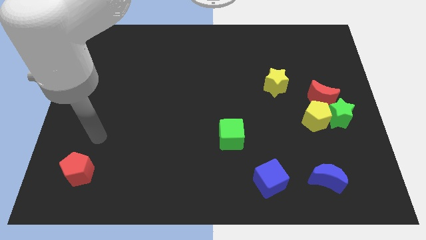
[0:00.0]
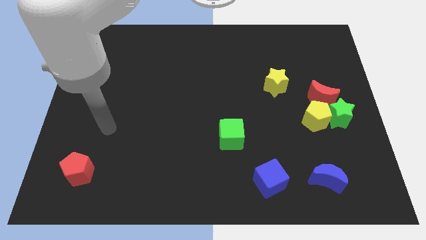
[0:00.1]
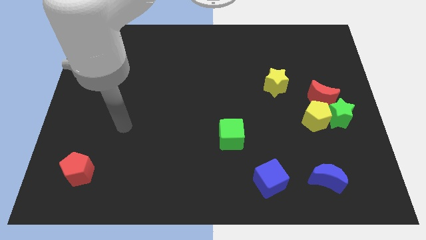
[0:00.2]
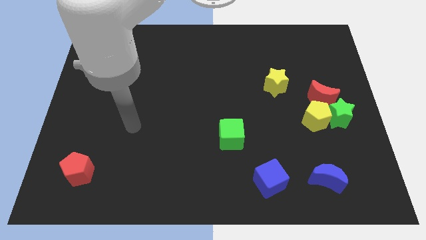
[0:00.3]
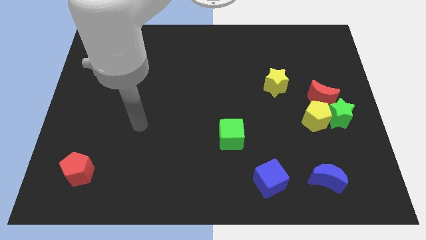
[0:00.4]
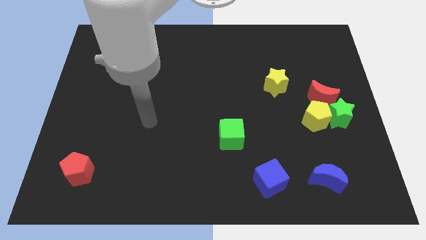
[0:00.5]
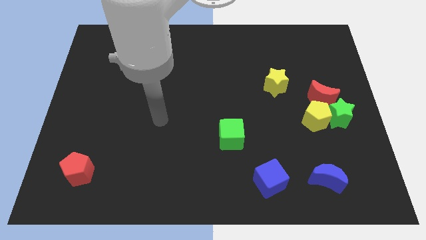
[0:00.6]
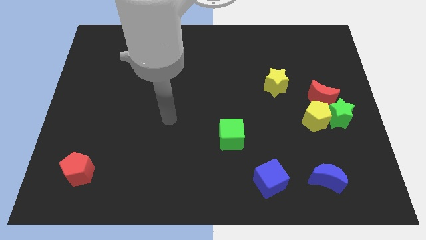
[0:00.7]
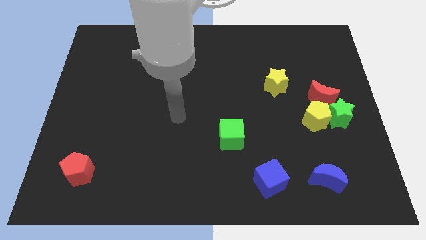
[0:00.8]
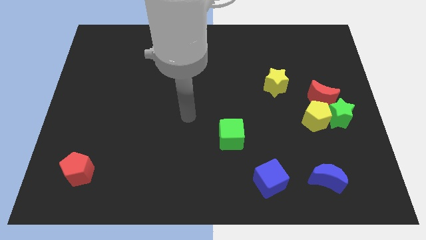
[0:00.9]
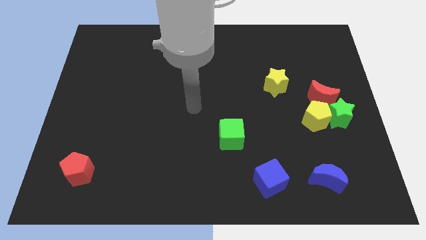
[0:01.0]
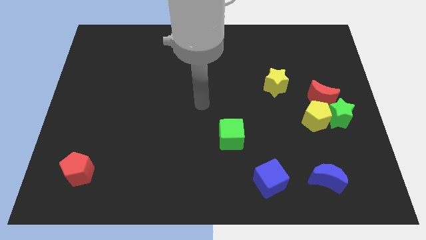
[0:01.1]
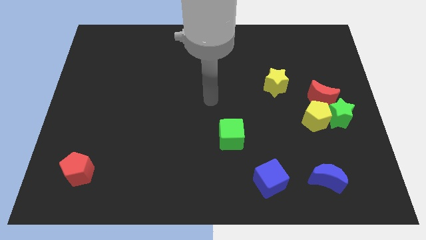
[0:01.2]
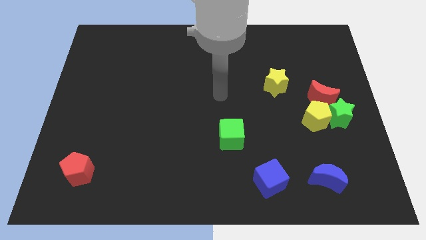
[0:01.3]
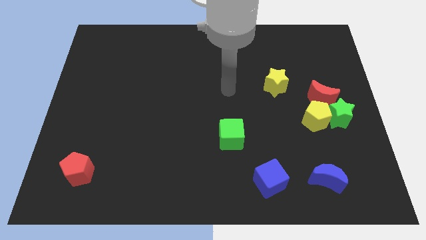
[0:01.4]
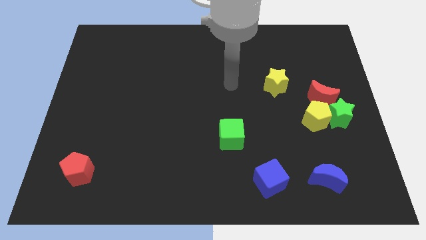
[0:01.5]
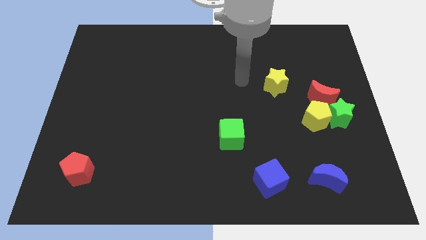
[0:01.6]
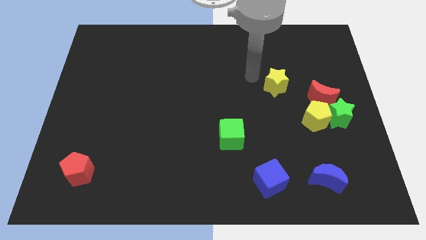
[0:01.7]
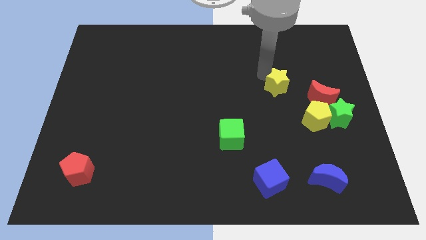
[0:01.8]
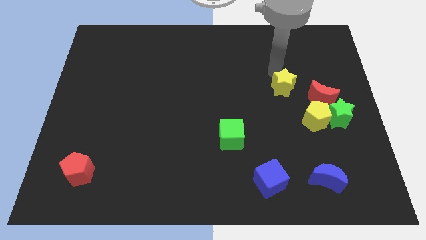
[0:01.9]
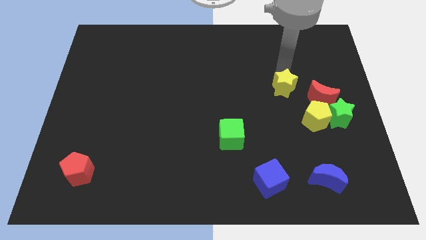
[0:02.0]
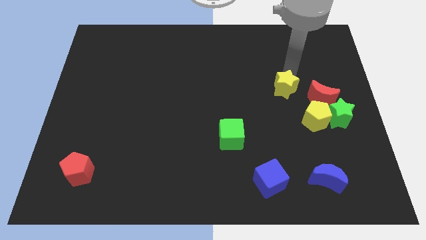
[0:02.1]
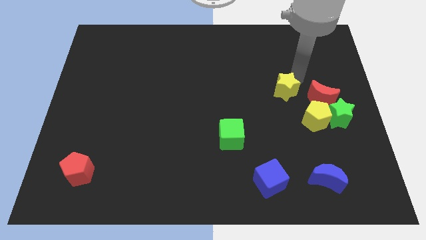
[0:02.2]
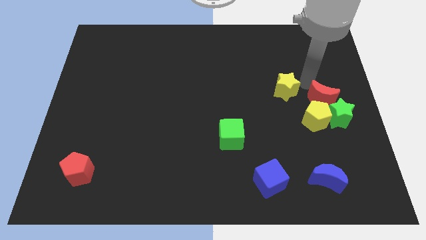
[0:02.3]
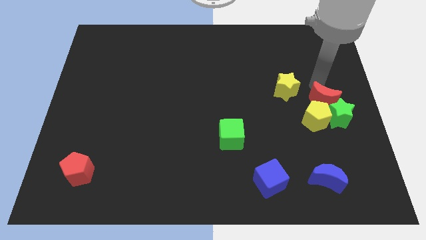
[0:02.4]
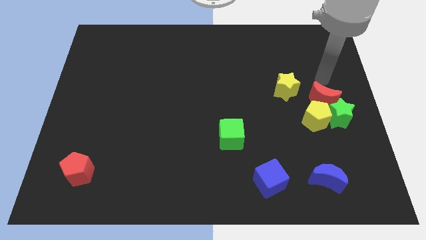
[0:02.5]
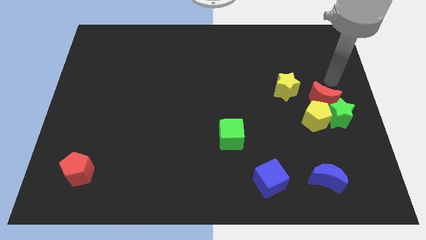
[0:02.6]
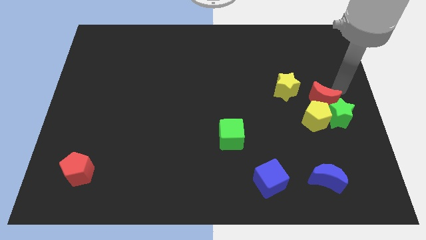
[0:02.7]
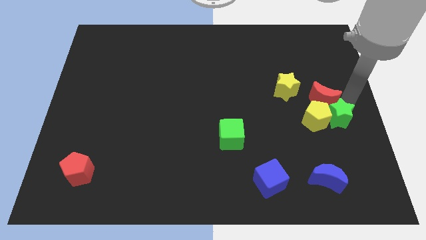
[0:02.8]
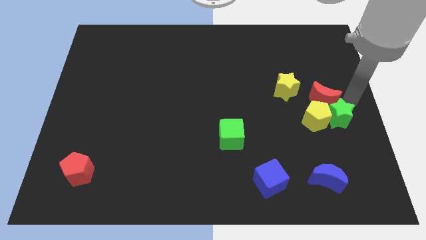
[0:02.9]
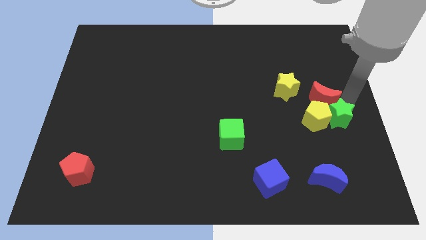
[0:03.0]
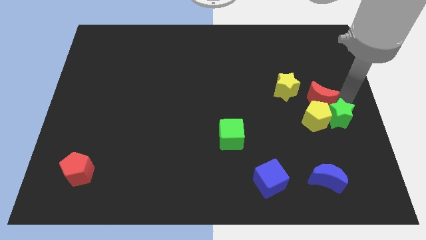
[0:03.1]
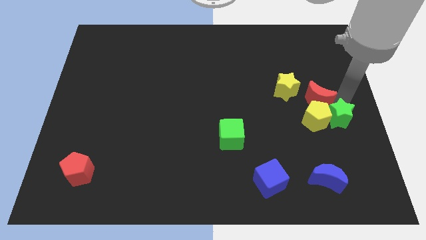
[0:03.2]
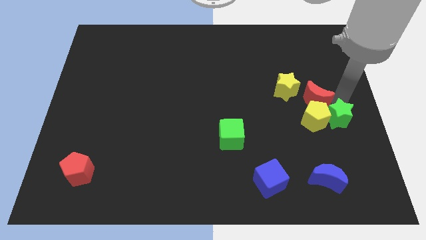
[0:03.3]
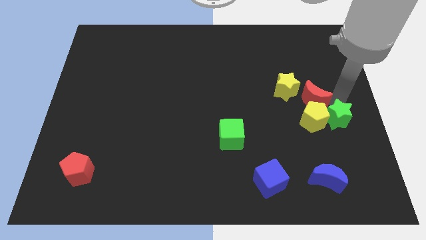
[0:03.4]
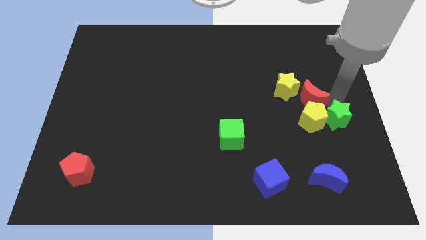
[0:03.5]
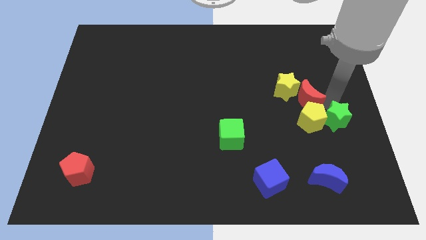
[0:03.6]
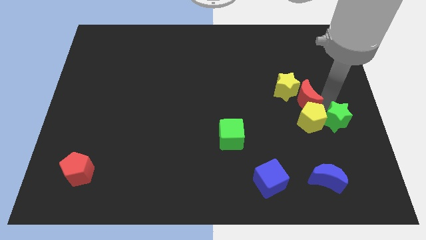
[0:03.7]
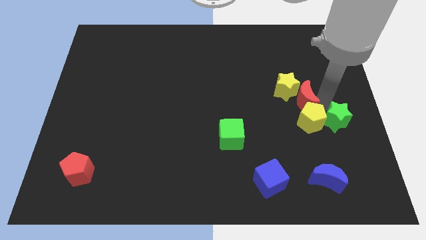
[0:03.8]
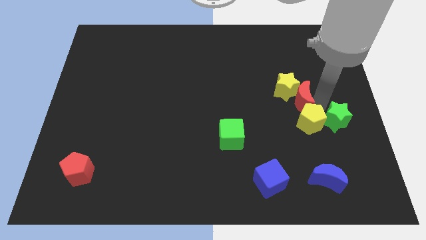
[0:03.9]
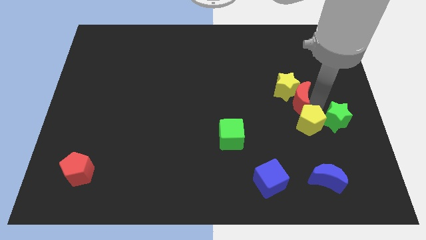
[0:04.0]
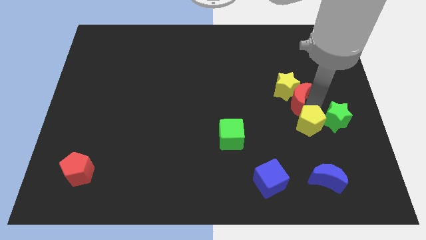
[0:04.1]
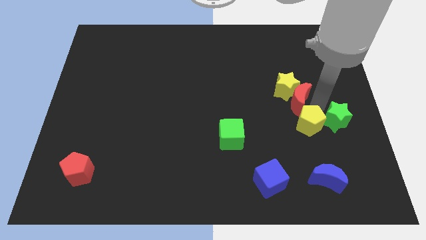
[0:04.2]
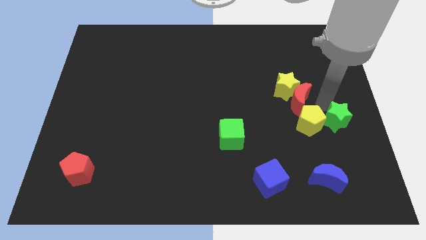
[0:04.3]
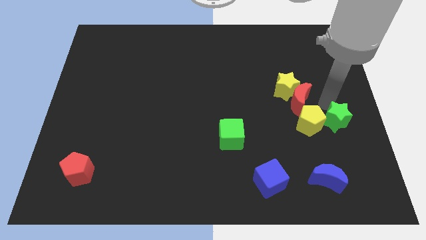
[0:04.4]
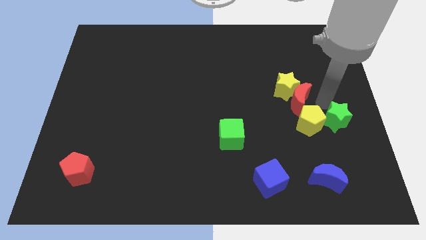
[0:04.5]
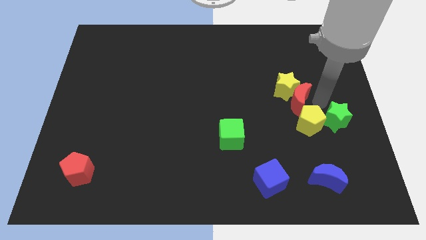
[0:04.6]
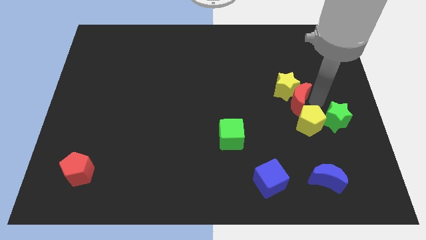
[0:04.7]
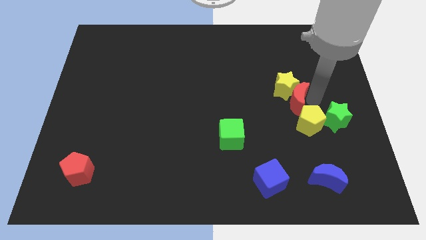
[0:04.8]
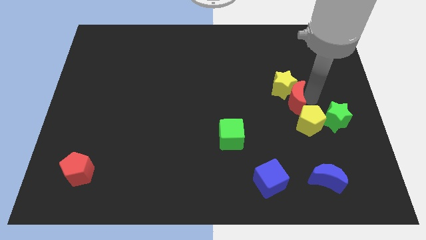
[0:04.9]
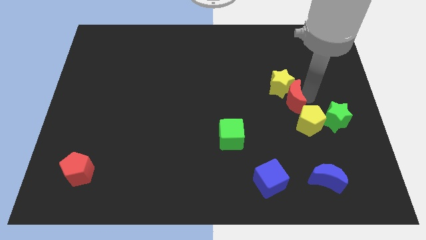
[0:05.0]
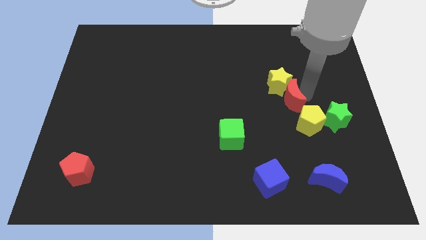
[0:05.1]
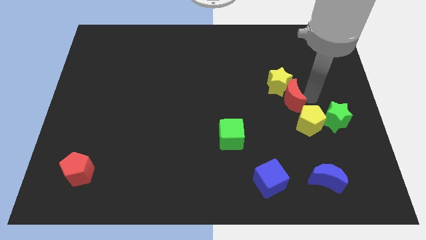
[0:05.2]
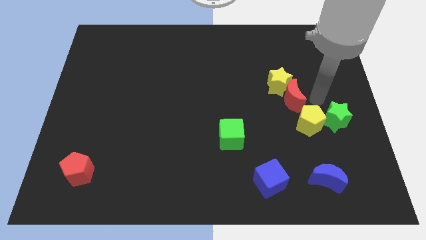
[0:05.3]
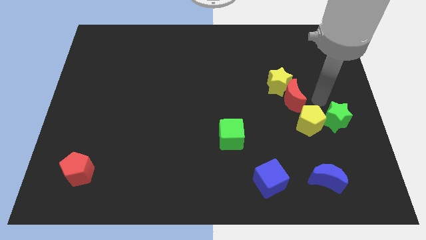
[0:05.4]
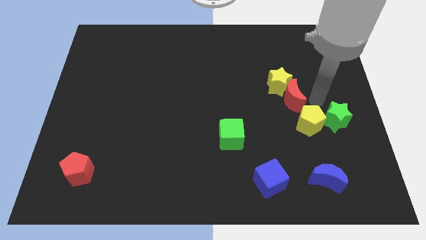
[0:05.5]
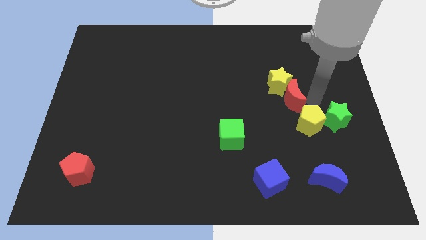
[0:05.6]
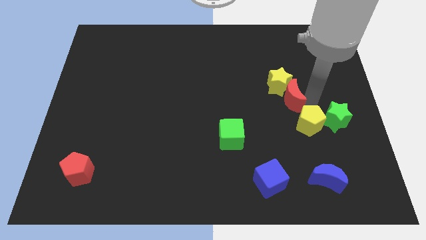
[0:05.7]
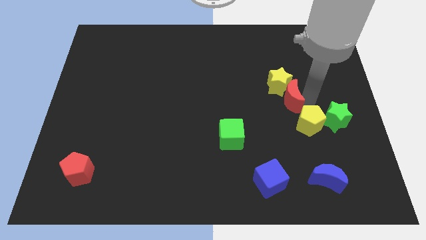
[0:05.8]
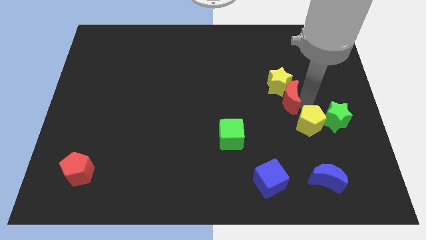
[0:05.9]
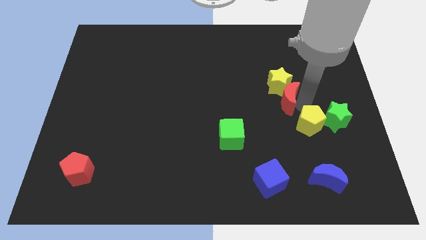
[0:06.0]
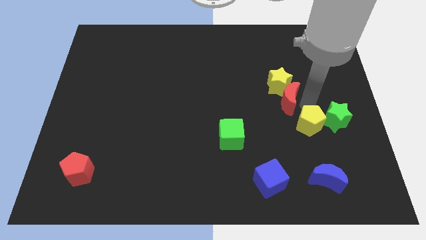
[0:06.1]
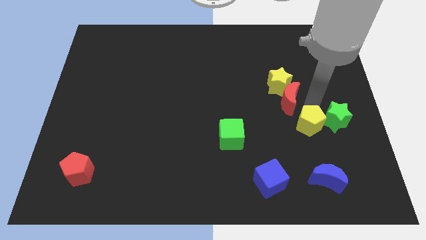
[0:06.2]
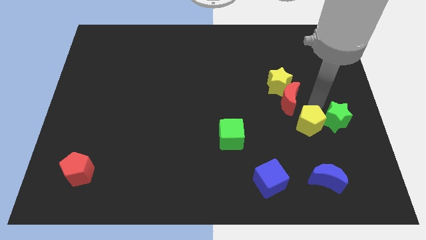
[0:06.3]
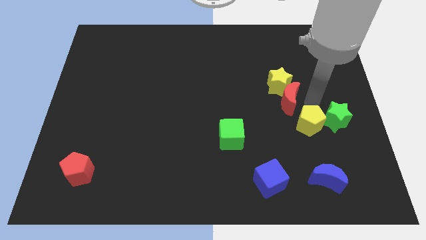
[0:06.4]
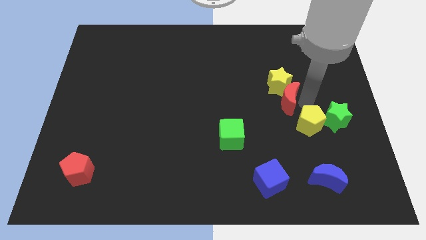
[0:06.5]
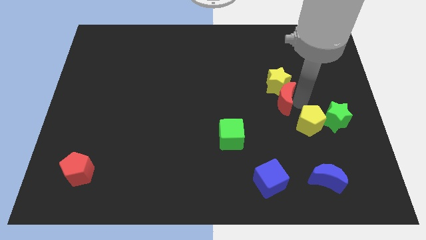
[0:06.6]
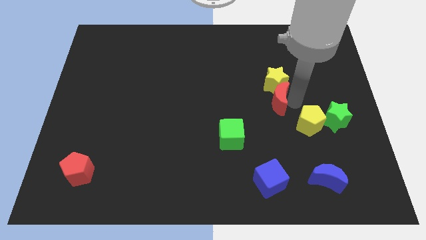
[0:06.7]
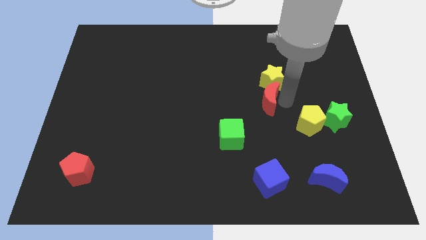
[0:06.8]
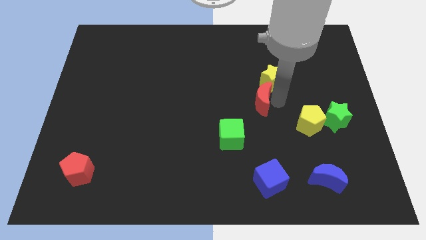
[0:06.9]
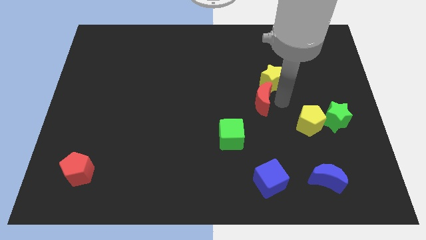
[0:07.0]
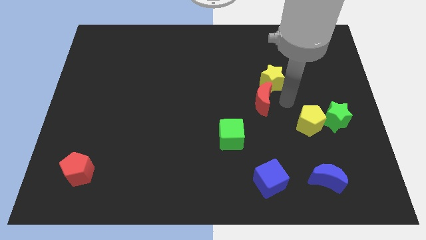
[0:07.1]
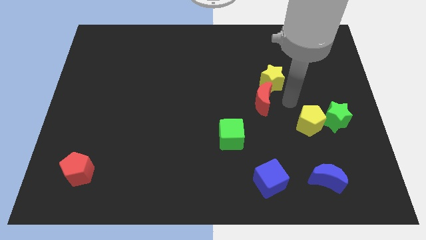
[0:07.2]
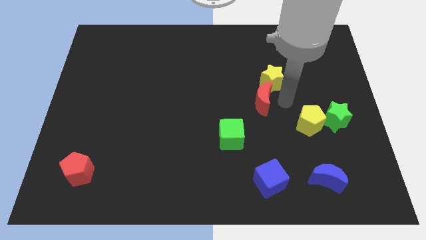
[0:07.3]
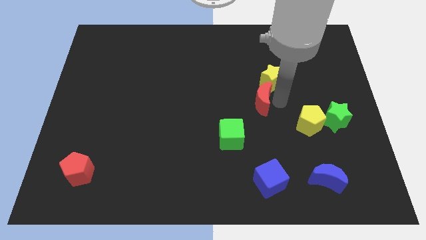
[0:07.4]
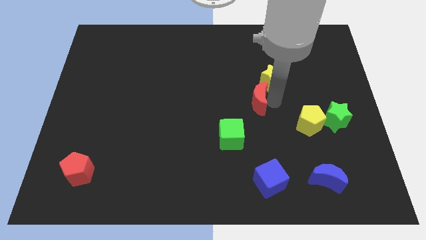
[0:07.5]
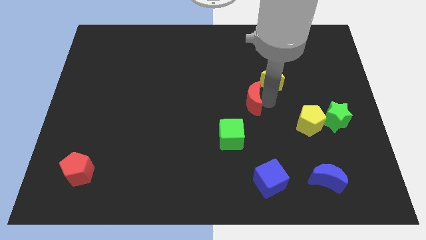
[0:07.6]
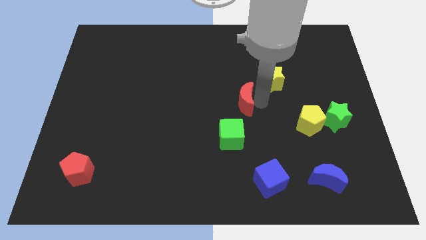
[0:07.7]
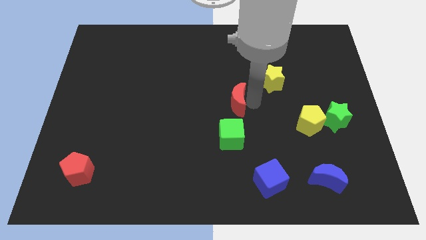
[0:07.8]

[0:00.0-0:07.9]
slide the red moon left

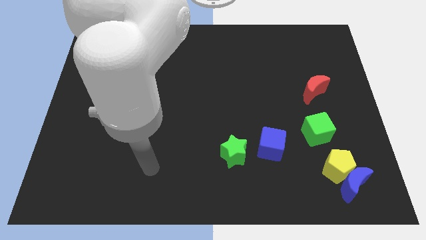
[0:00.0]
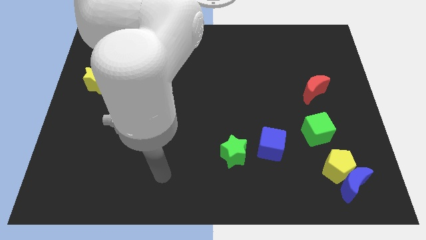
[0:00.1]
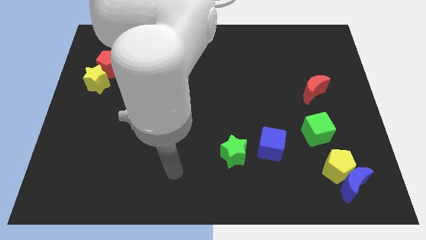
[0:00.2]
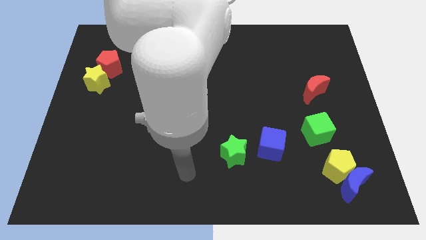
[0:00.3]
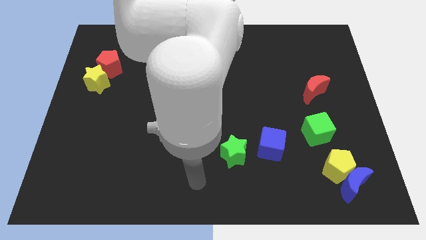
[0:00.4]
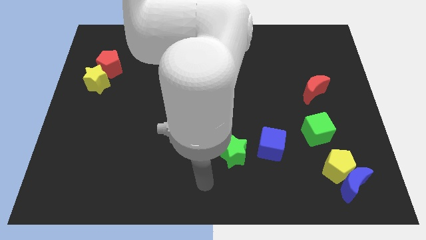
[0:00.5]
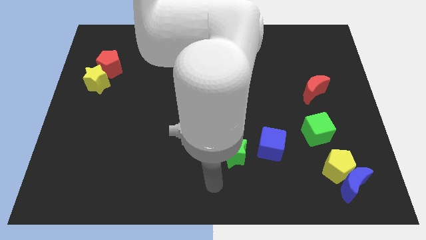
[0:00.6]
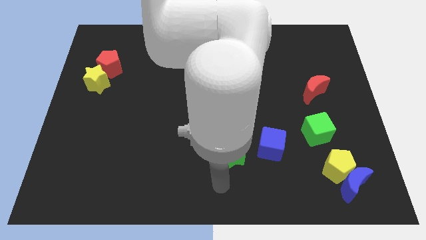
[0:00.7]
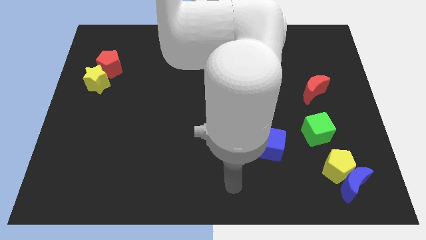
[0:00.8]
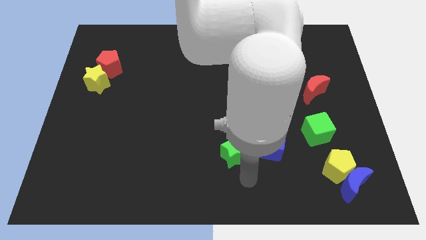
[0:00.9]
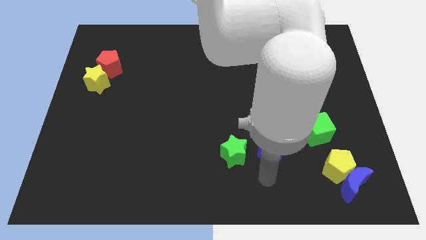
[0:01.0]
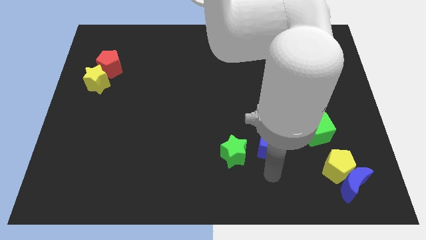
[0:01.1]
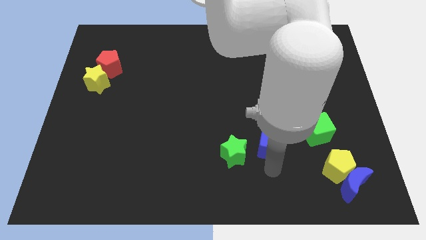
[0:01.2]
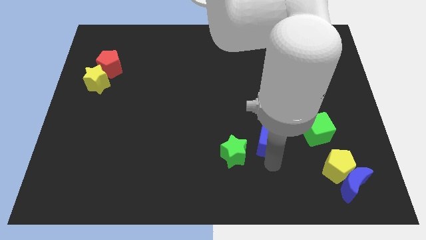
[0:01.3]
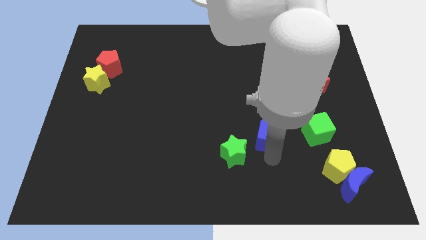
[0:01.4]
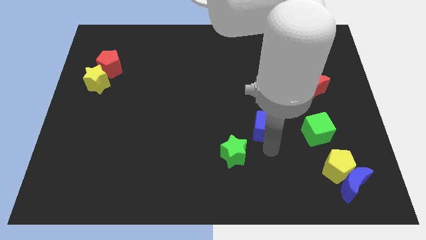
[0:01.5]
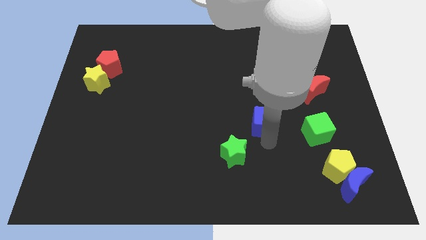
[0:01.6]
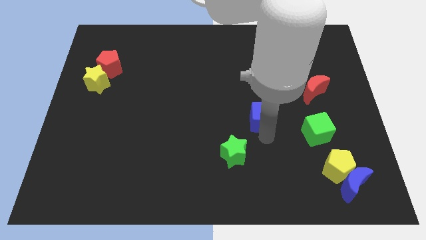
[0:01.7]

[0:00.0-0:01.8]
slide the blue cube somewhat up
